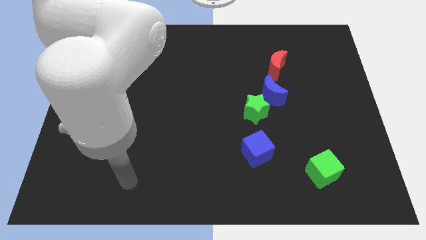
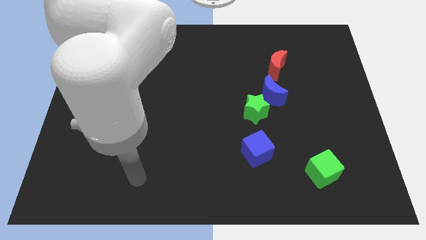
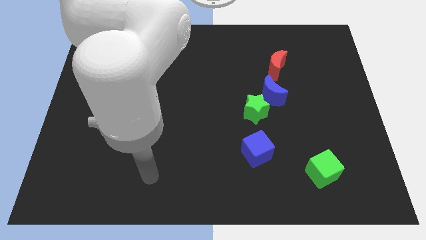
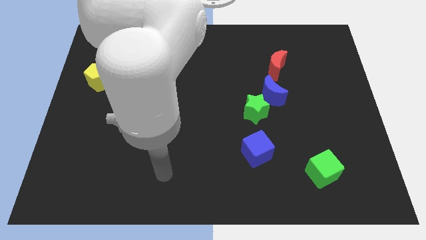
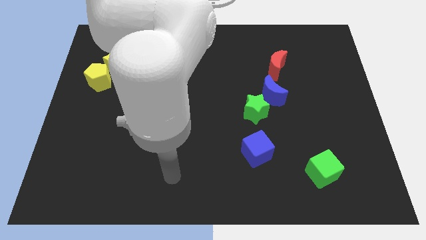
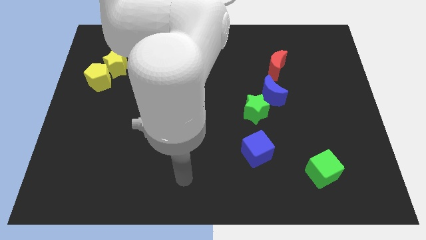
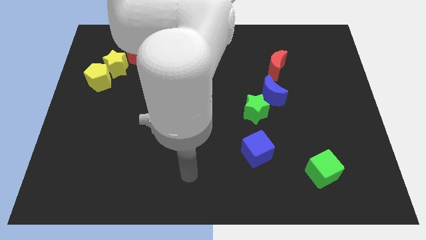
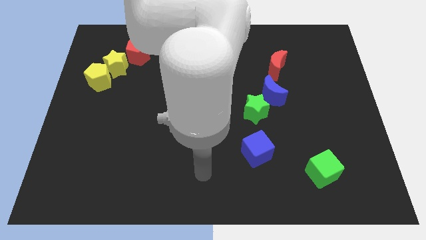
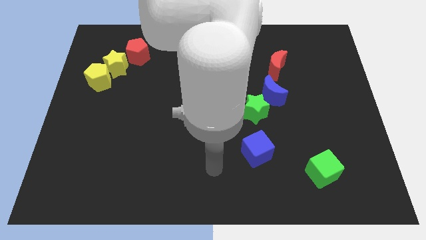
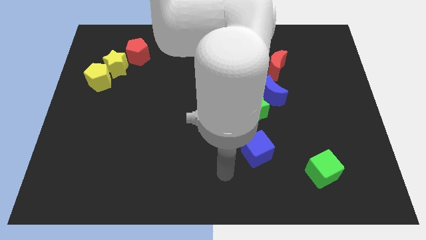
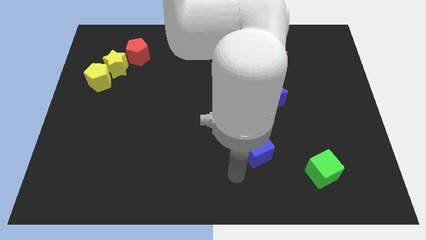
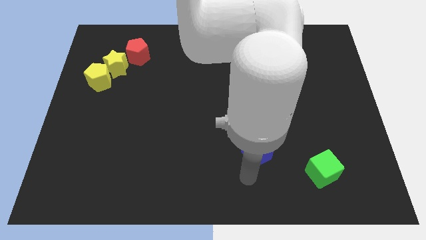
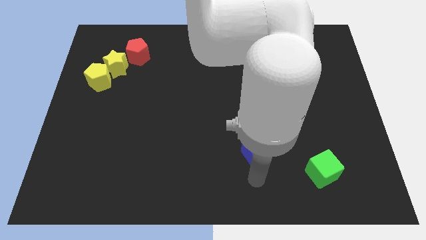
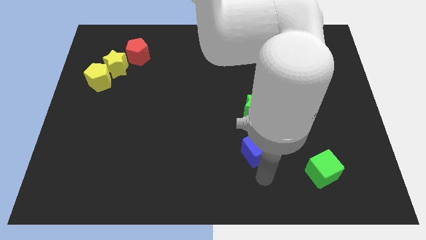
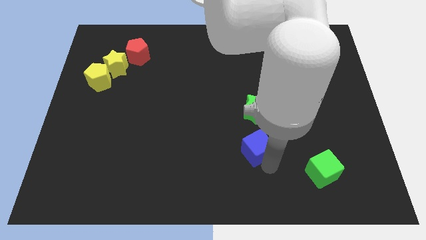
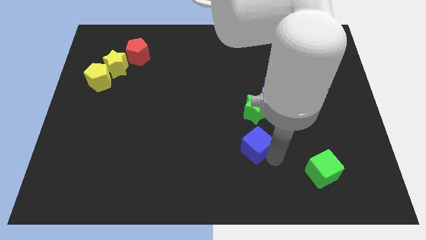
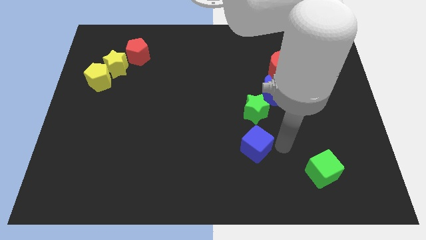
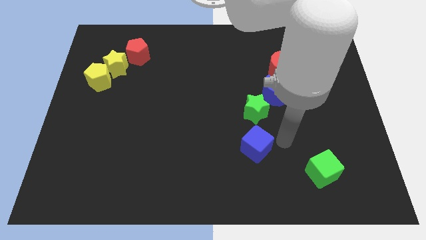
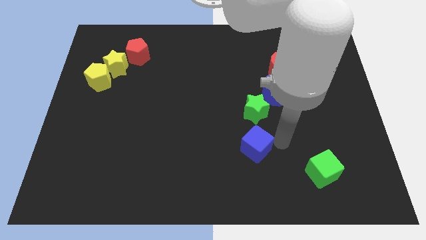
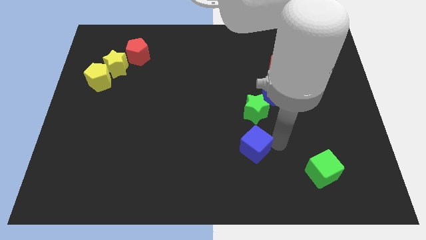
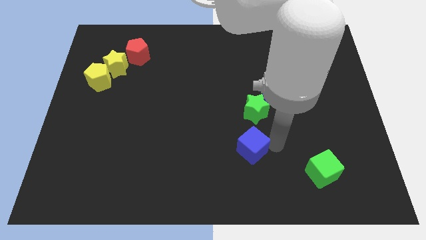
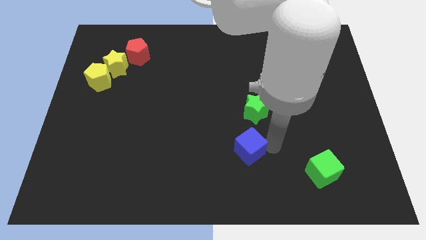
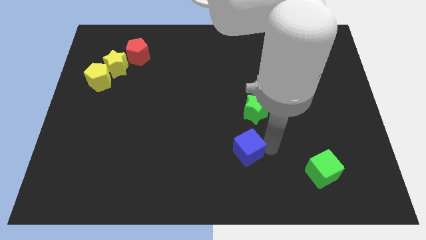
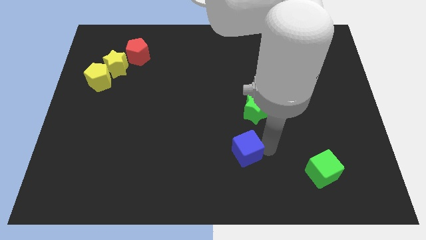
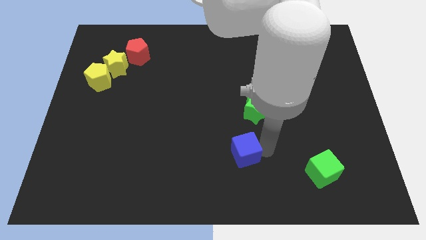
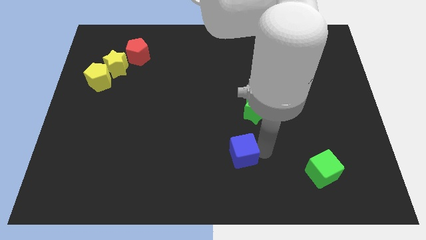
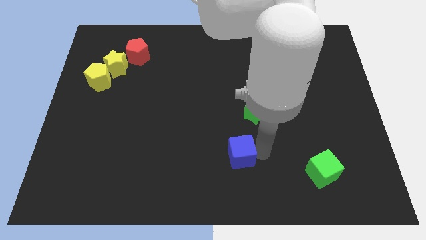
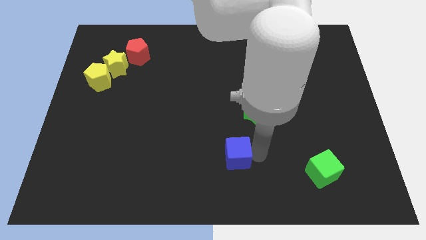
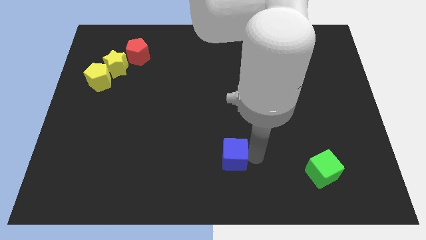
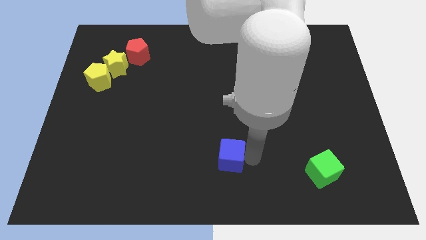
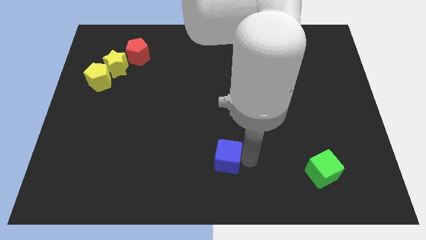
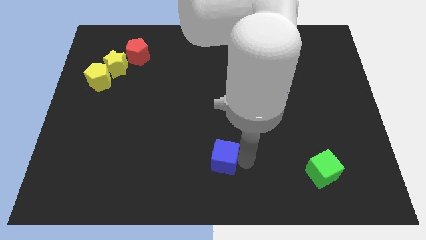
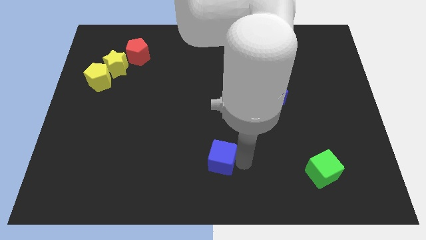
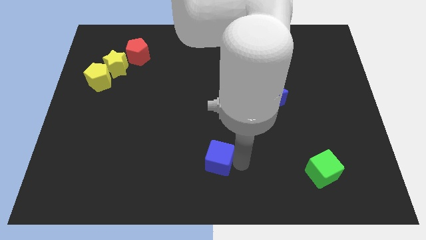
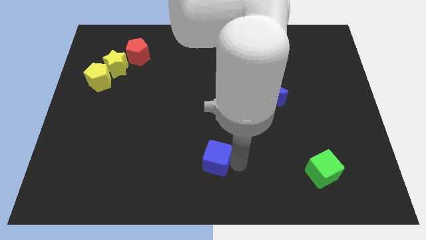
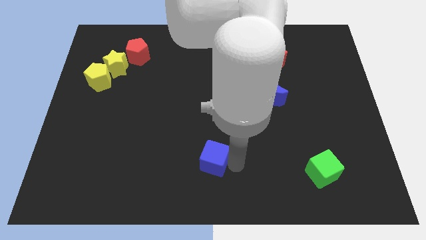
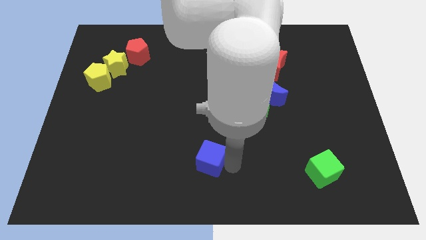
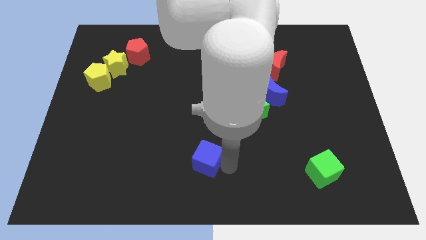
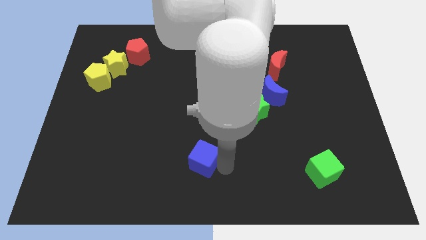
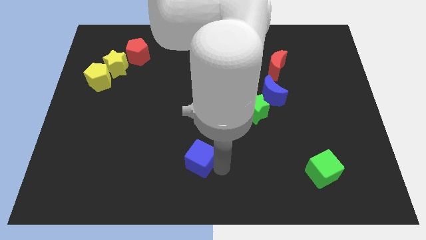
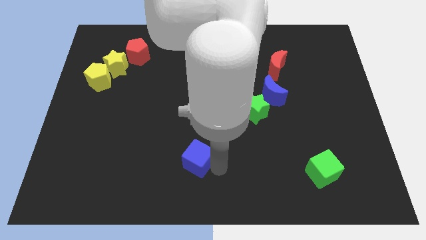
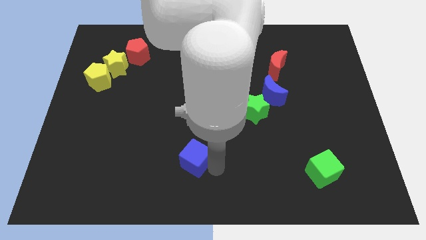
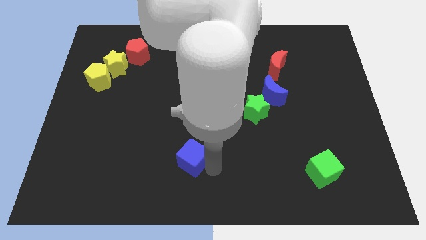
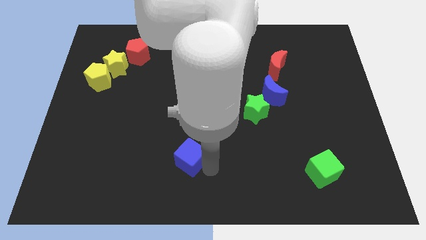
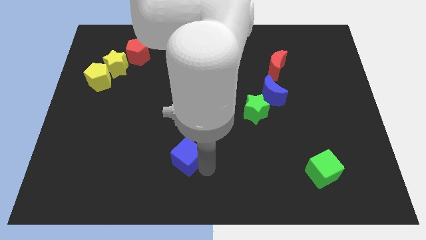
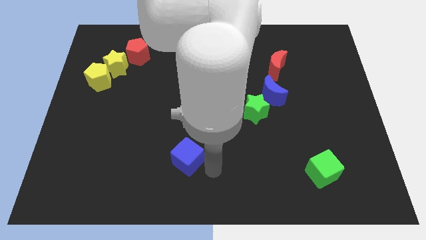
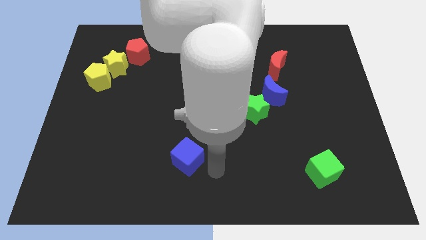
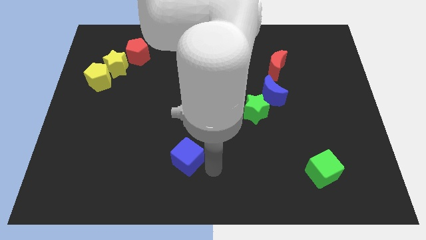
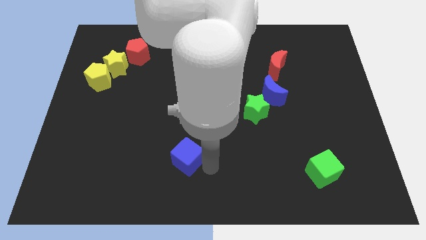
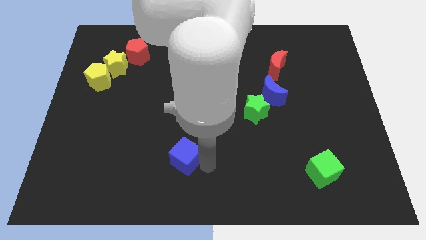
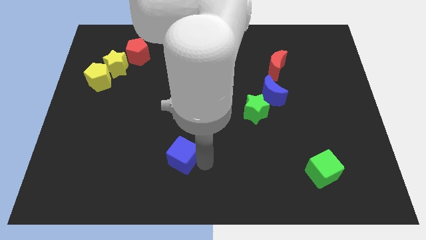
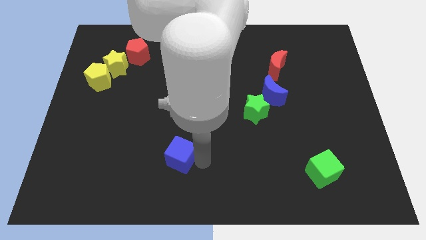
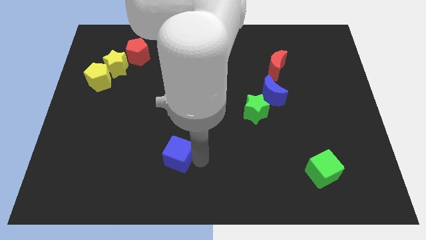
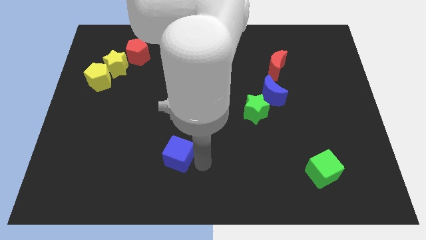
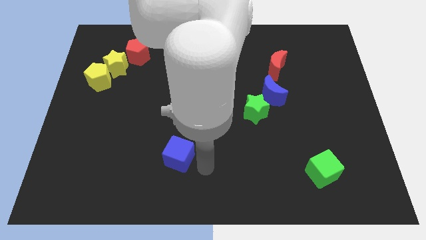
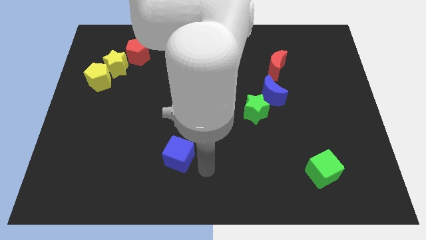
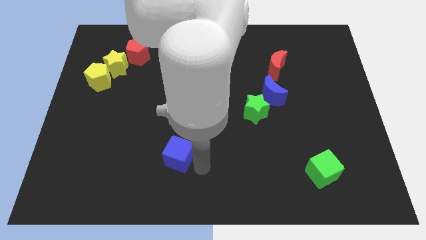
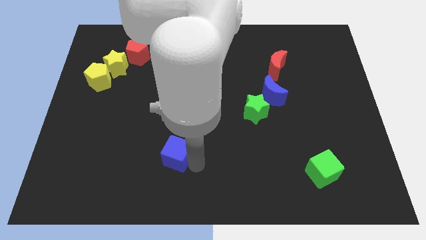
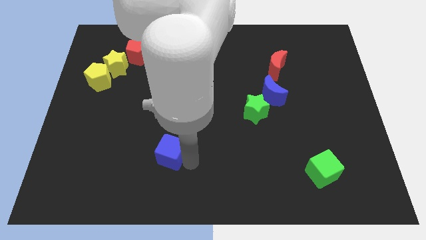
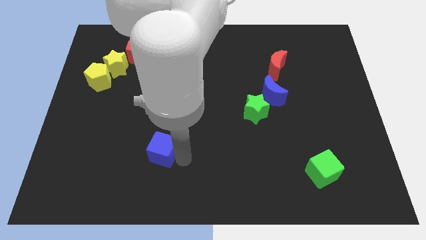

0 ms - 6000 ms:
move the blue cube to the left

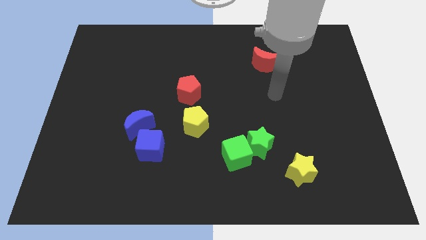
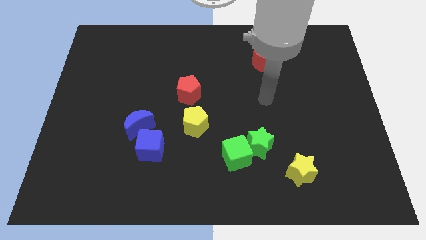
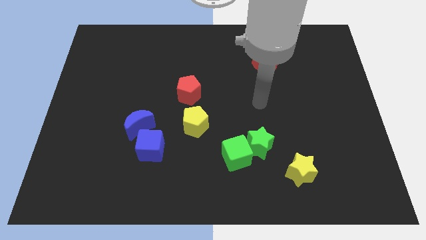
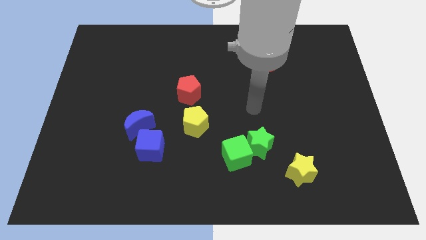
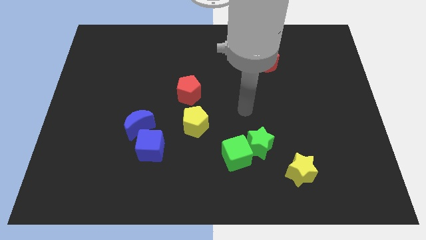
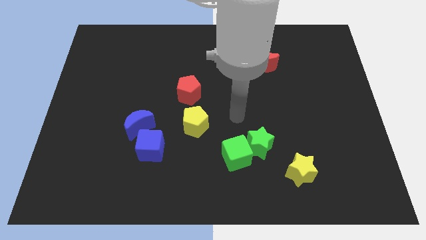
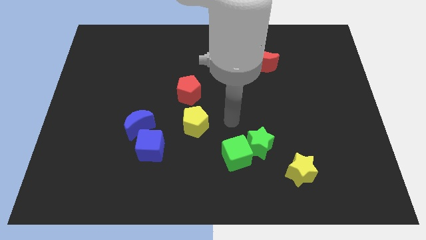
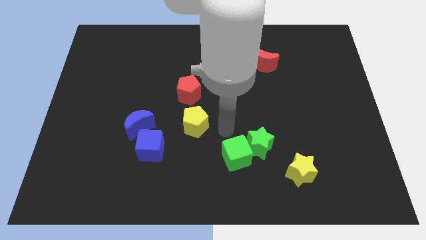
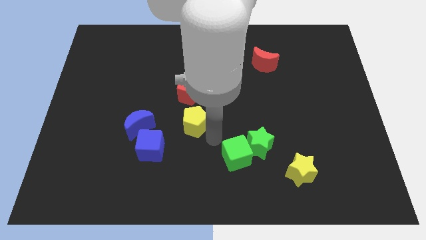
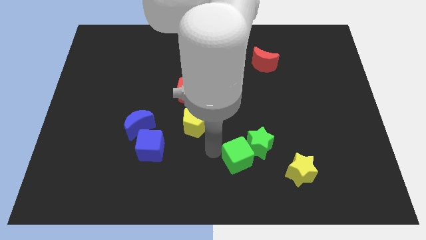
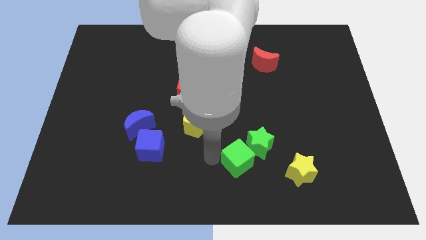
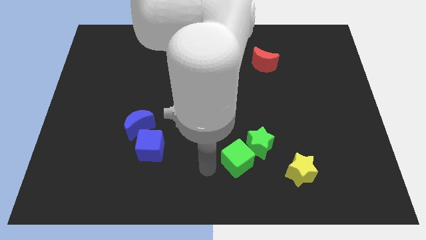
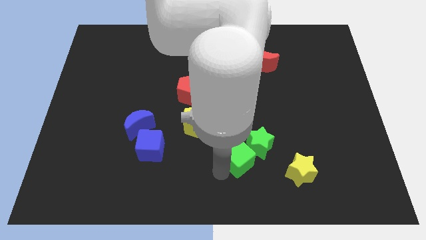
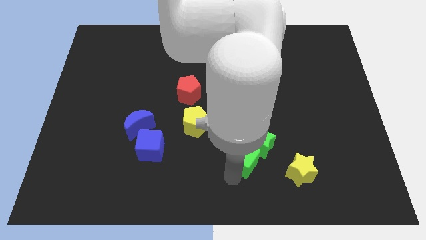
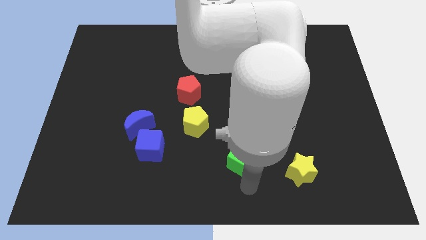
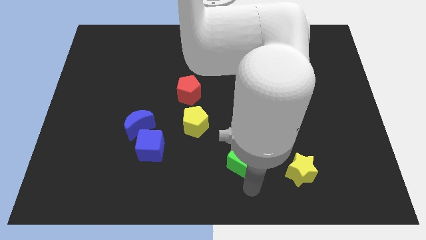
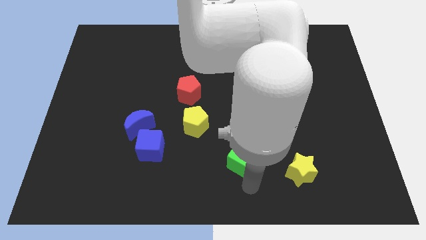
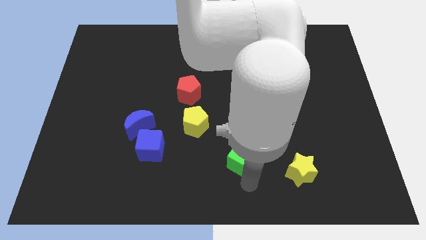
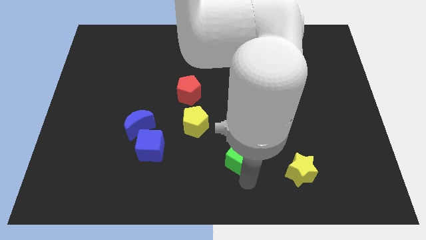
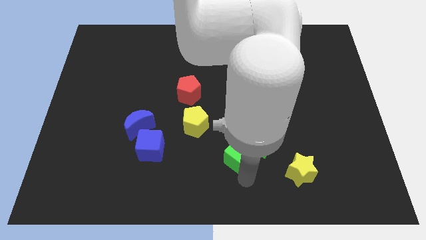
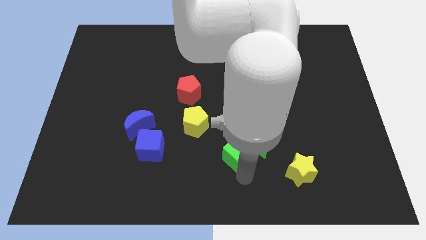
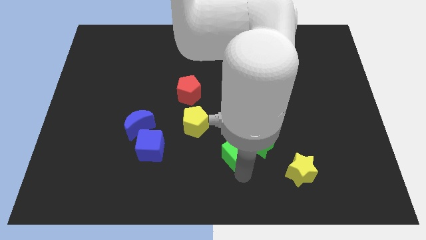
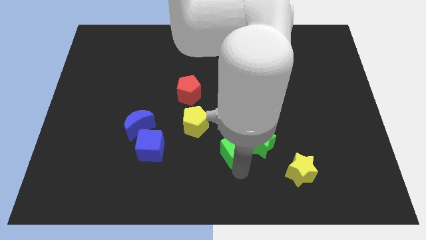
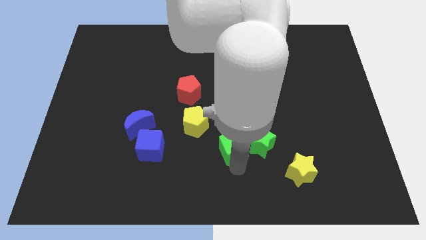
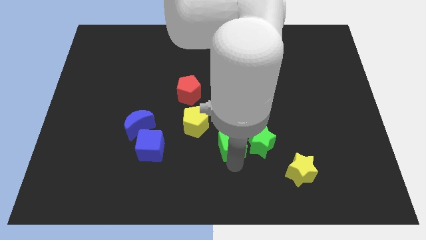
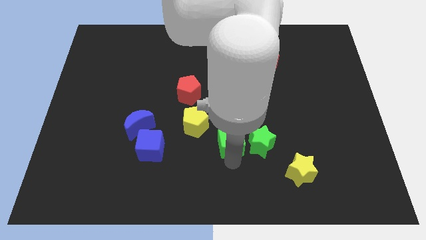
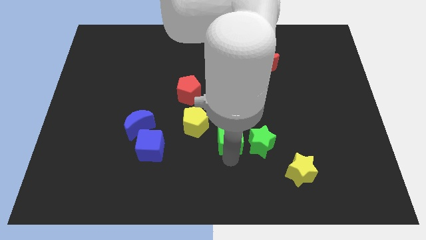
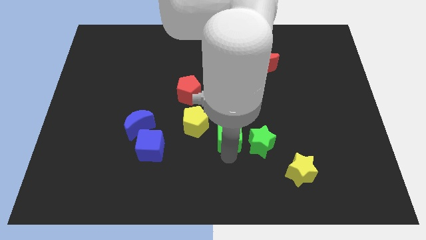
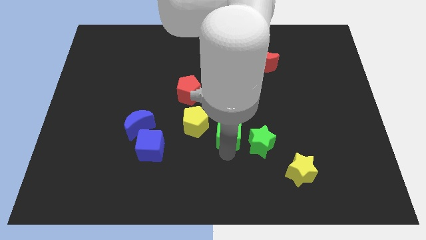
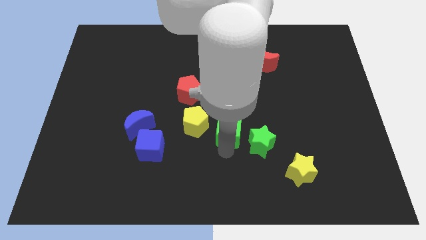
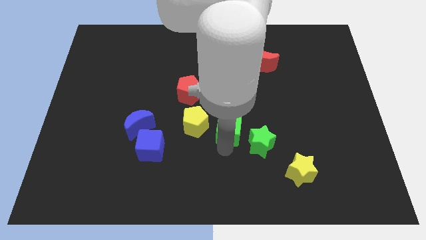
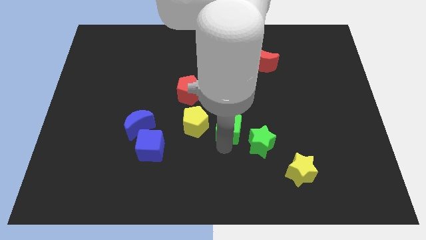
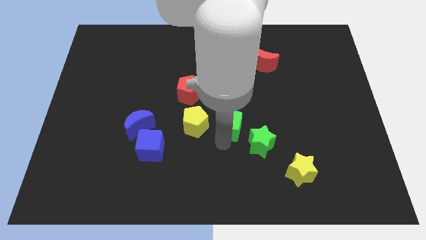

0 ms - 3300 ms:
push the green cube upwards somewhat
